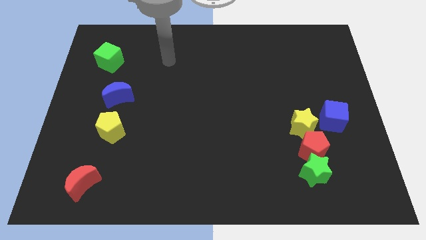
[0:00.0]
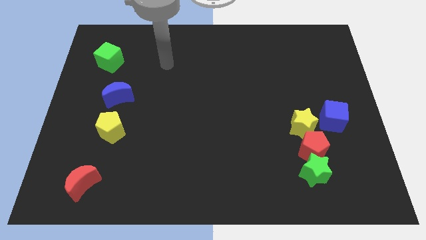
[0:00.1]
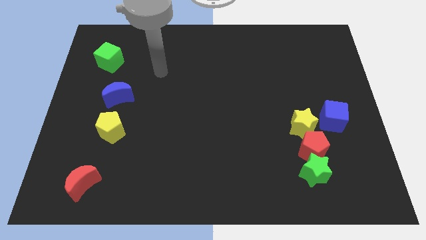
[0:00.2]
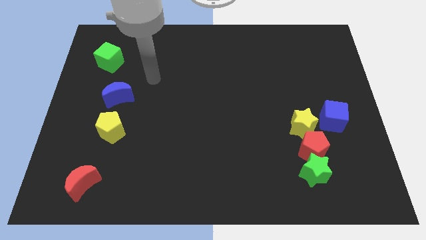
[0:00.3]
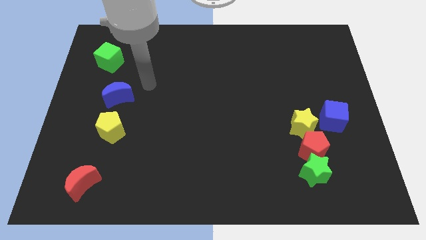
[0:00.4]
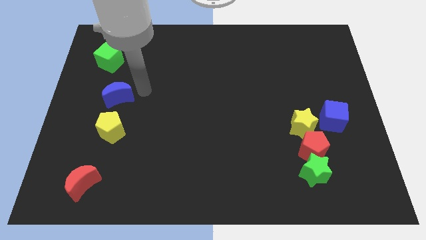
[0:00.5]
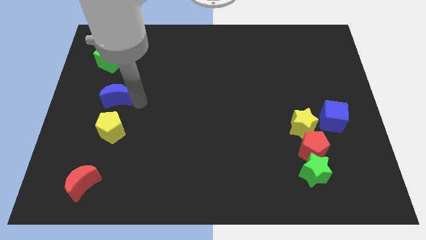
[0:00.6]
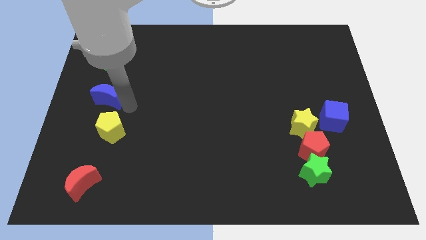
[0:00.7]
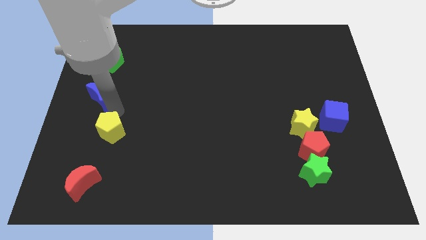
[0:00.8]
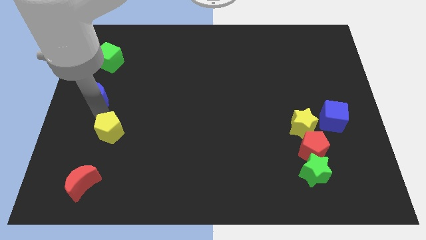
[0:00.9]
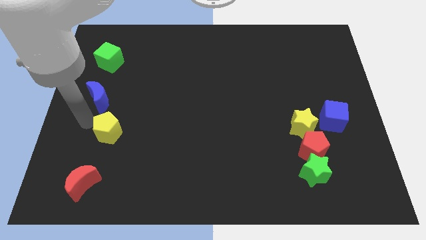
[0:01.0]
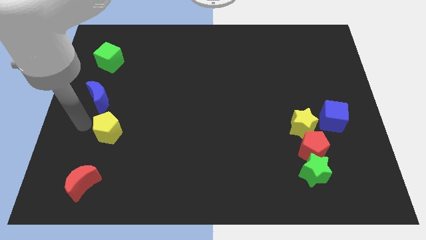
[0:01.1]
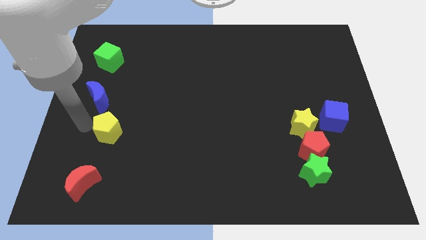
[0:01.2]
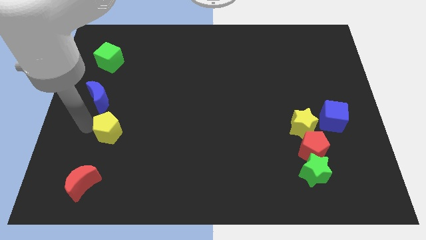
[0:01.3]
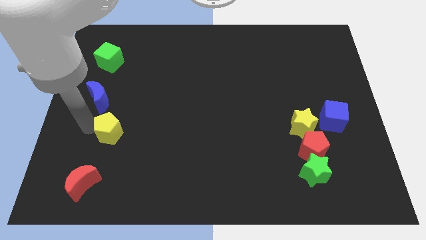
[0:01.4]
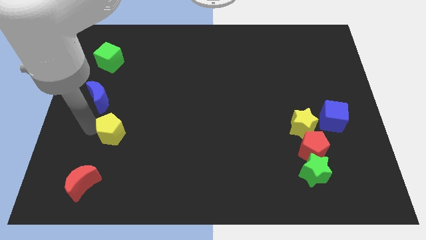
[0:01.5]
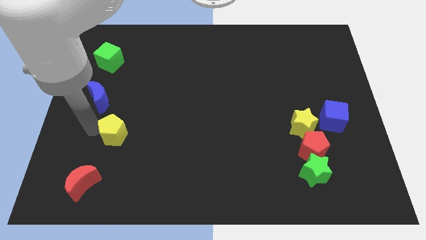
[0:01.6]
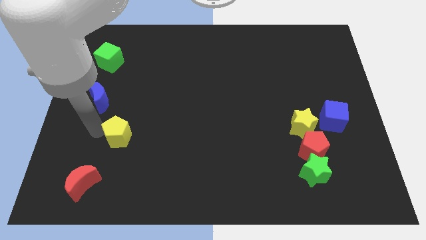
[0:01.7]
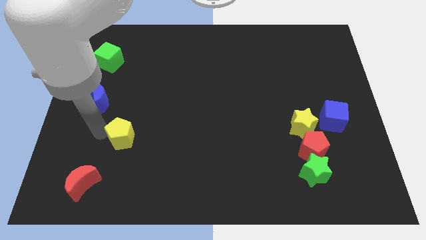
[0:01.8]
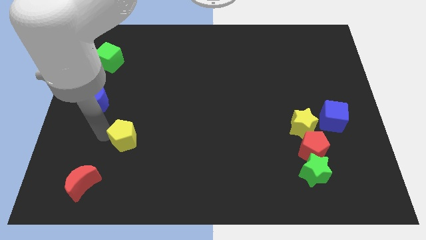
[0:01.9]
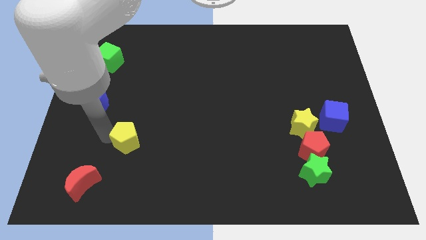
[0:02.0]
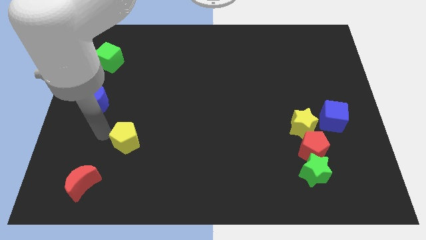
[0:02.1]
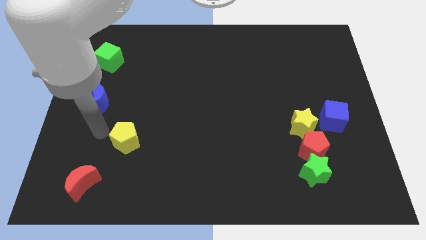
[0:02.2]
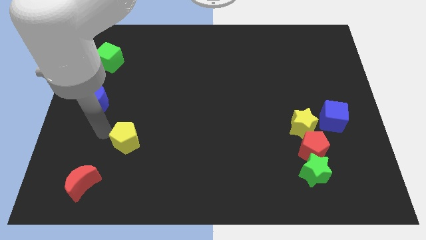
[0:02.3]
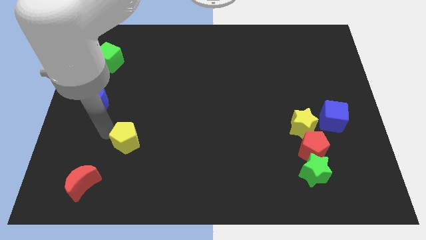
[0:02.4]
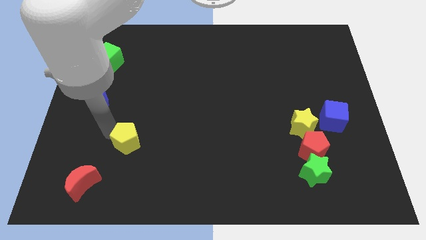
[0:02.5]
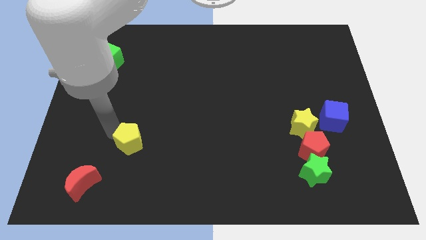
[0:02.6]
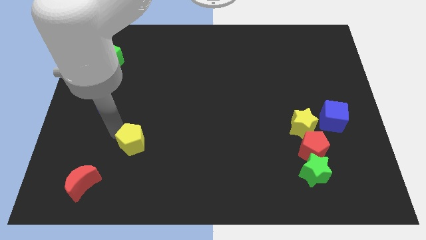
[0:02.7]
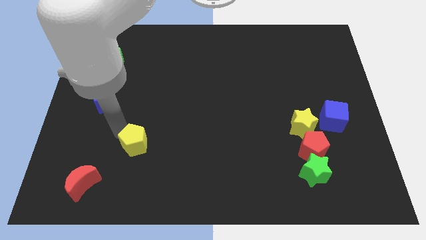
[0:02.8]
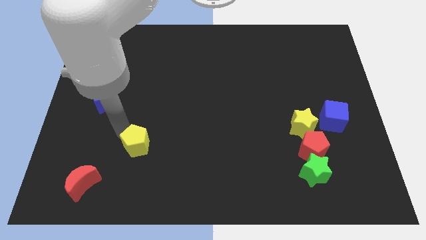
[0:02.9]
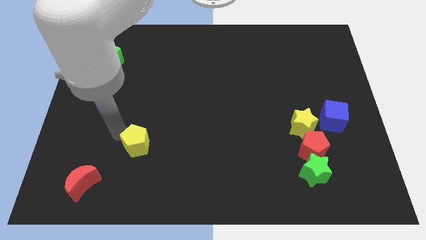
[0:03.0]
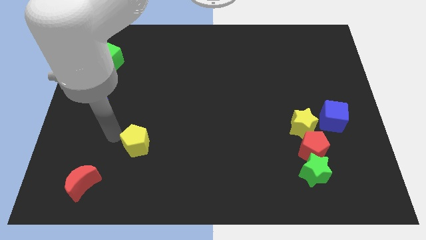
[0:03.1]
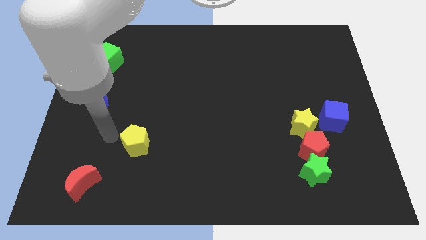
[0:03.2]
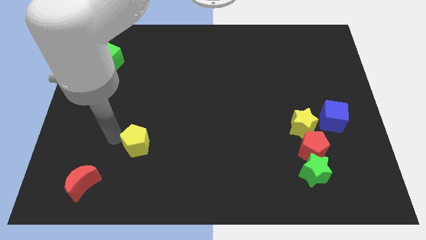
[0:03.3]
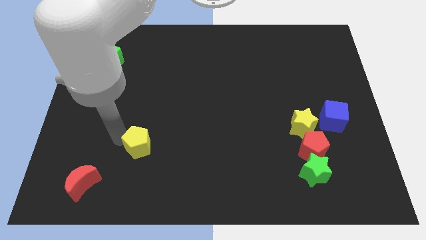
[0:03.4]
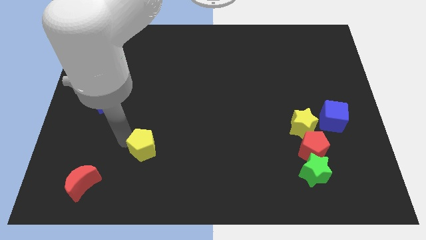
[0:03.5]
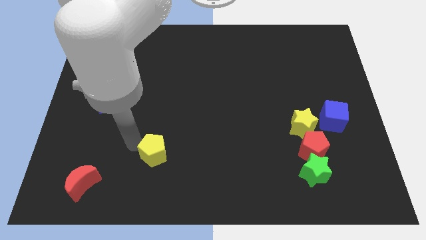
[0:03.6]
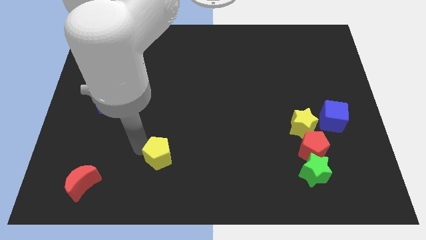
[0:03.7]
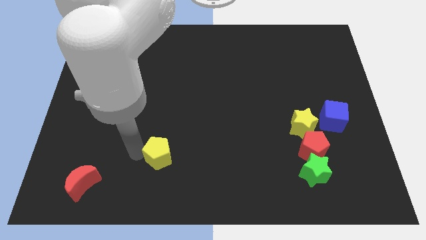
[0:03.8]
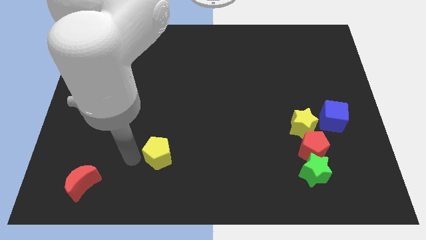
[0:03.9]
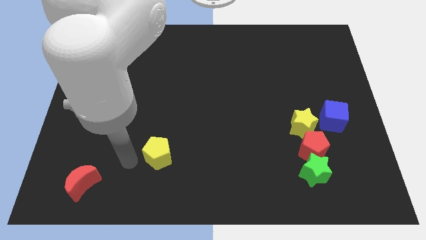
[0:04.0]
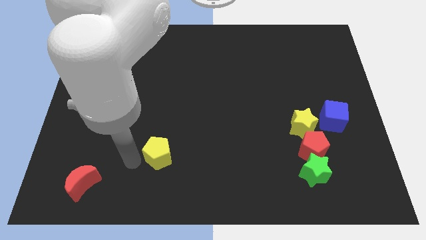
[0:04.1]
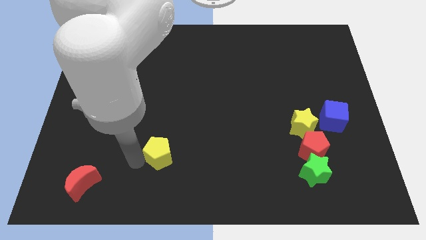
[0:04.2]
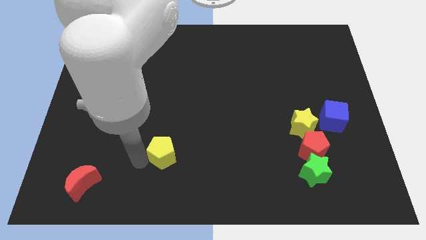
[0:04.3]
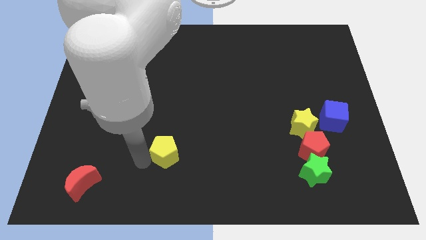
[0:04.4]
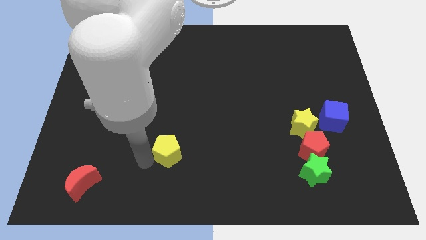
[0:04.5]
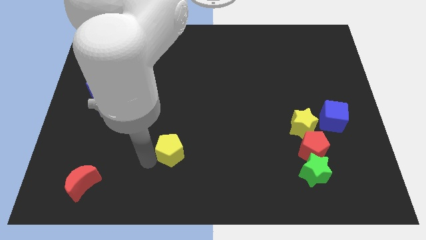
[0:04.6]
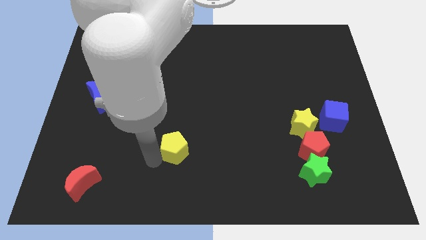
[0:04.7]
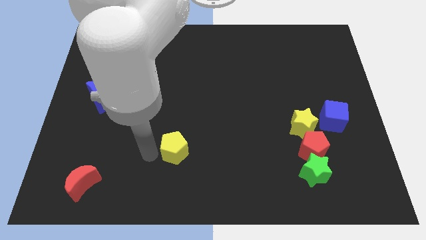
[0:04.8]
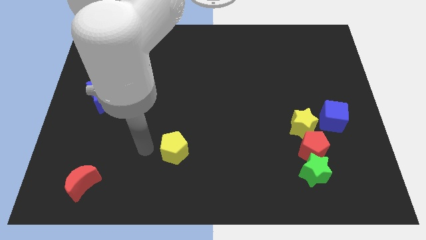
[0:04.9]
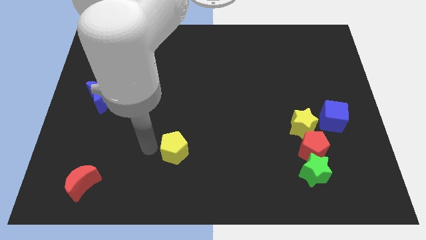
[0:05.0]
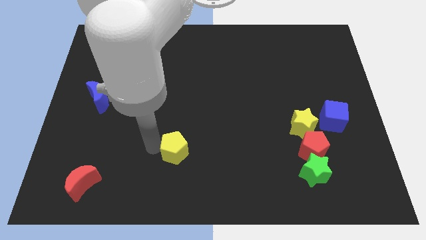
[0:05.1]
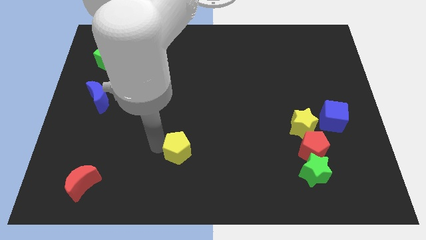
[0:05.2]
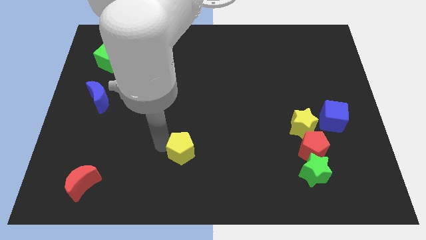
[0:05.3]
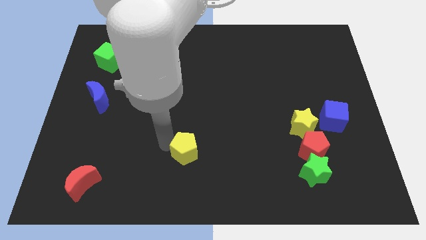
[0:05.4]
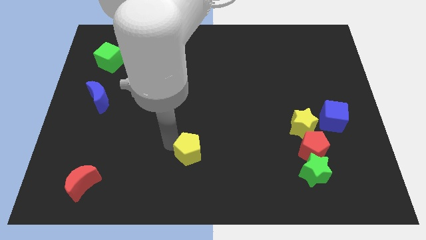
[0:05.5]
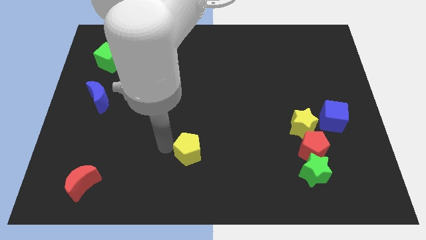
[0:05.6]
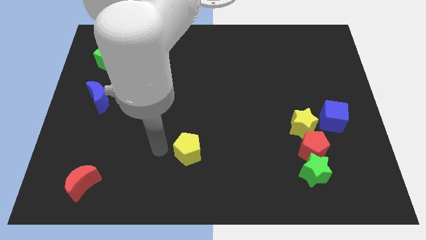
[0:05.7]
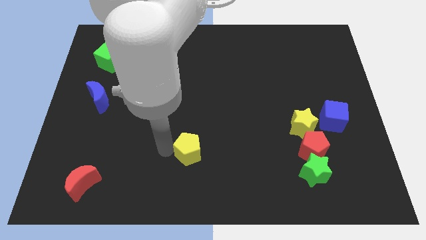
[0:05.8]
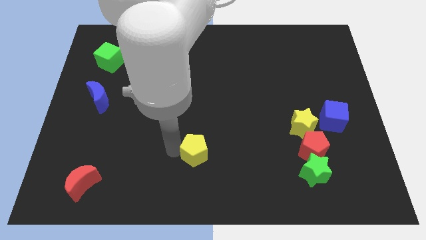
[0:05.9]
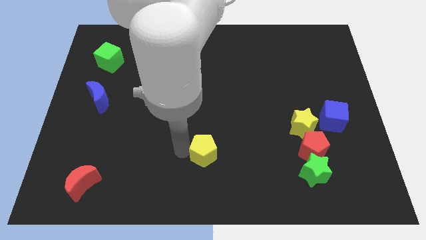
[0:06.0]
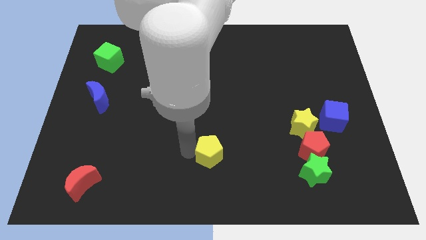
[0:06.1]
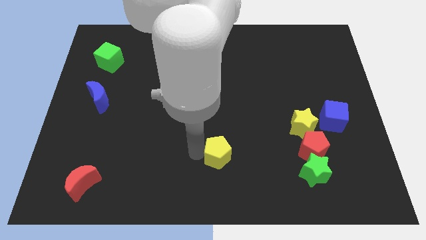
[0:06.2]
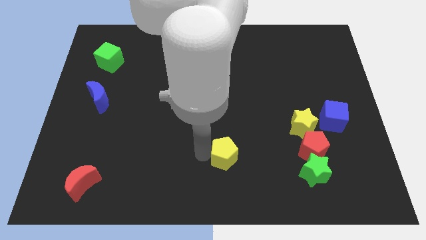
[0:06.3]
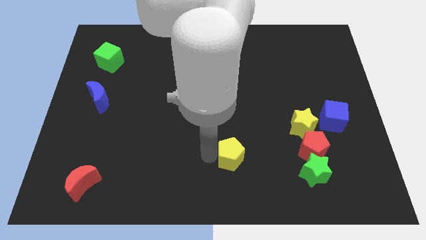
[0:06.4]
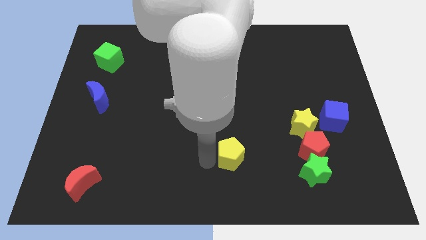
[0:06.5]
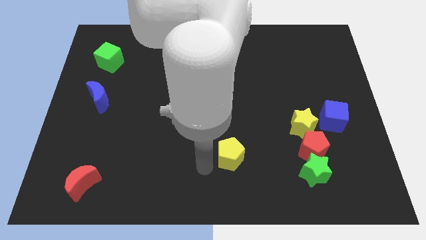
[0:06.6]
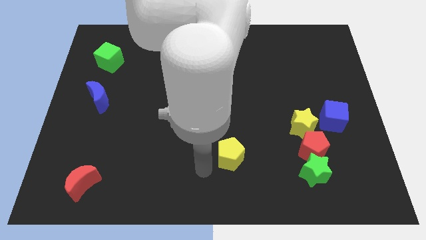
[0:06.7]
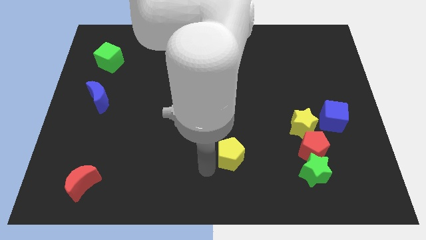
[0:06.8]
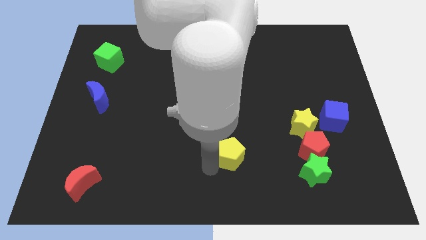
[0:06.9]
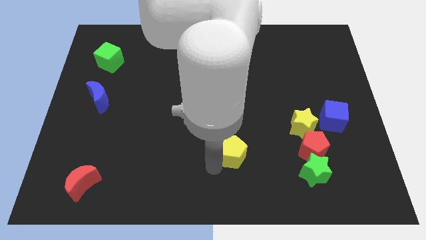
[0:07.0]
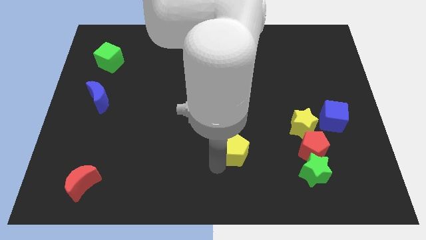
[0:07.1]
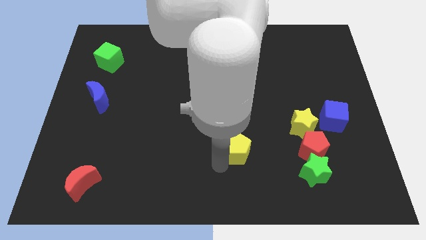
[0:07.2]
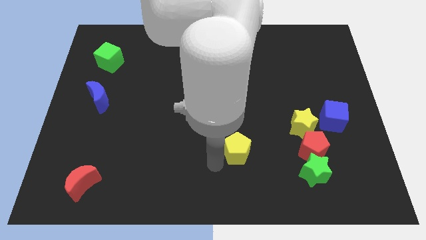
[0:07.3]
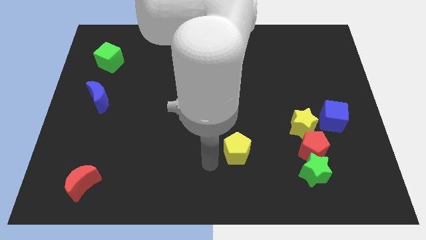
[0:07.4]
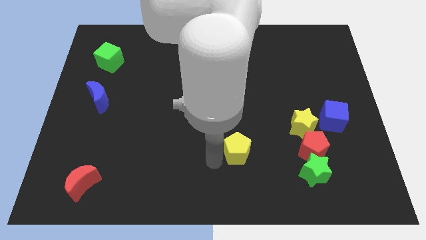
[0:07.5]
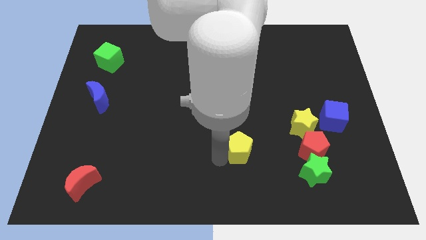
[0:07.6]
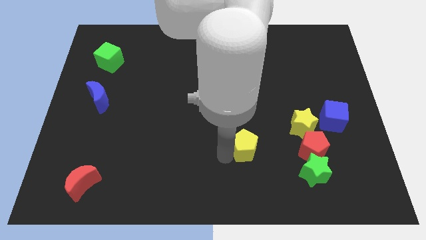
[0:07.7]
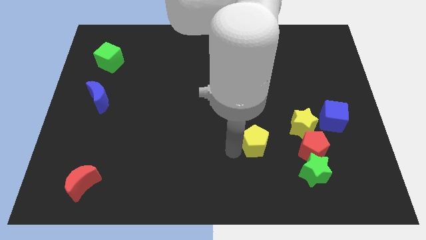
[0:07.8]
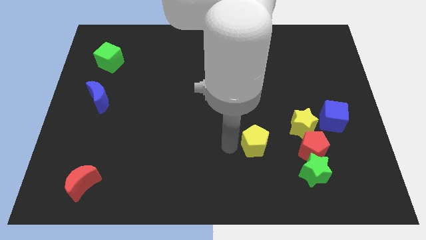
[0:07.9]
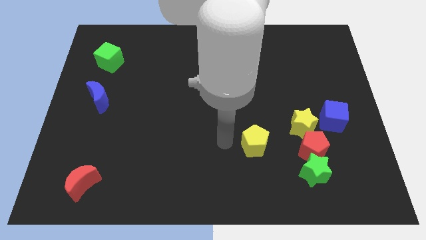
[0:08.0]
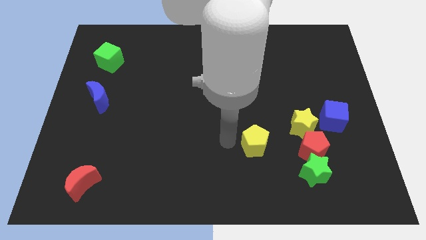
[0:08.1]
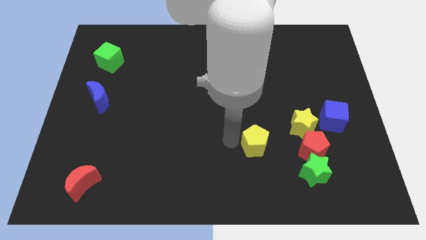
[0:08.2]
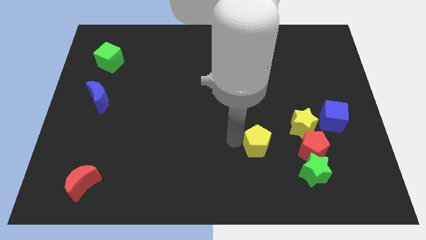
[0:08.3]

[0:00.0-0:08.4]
put the yellow pentagon to the bottom left of the yellow star
